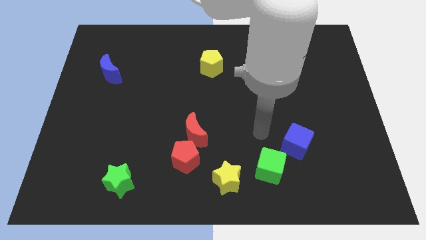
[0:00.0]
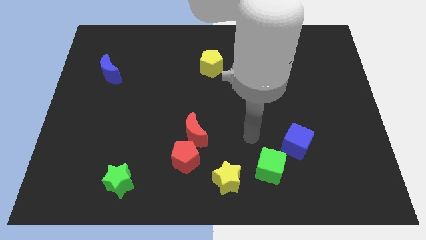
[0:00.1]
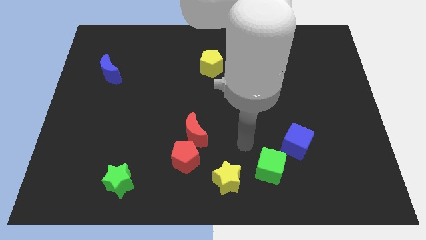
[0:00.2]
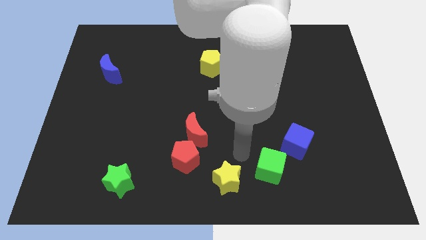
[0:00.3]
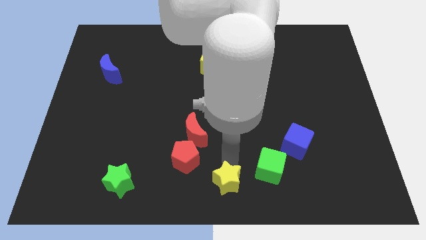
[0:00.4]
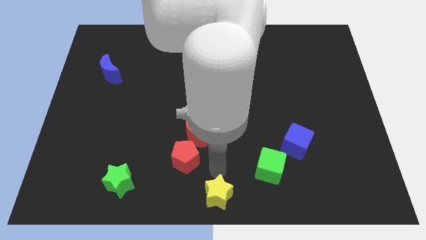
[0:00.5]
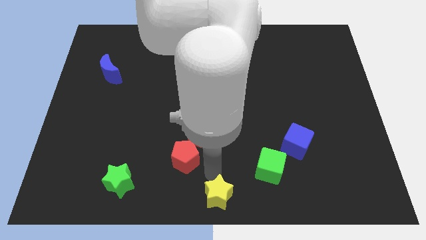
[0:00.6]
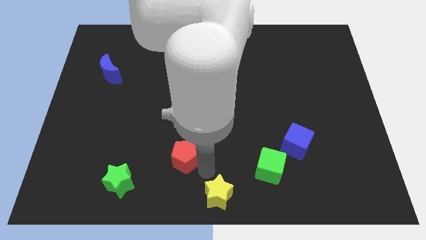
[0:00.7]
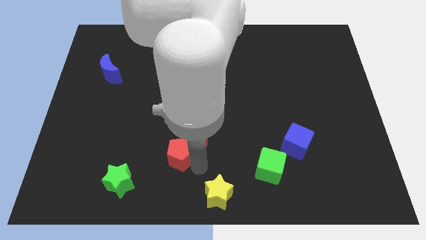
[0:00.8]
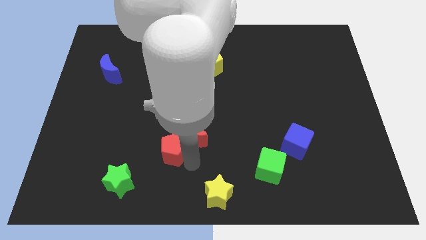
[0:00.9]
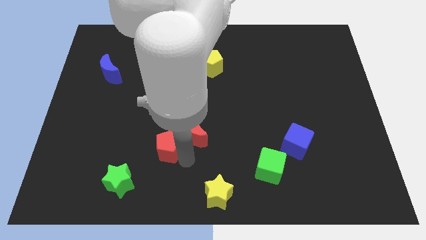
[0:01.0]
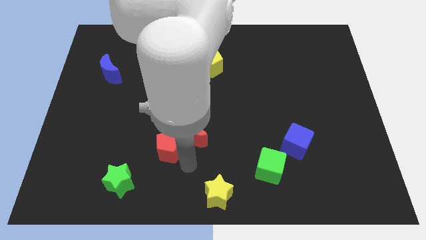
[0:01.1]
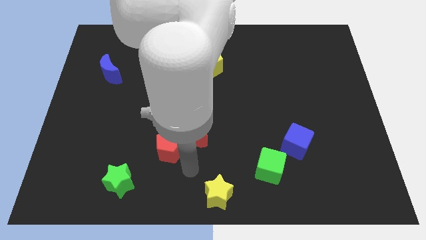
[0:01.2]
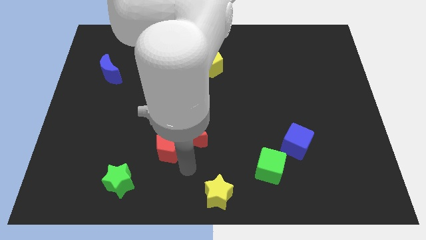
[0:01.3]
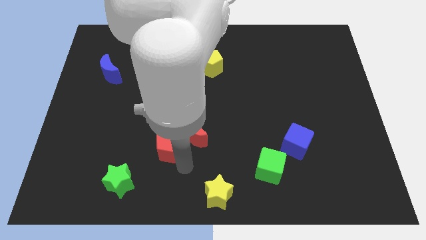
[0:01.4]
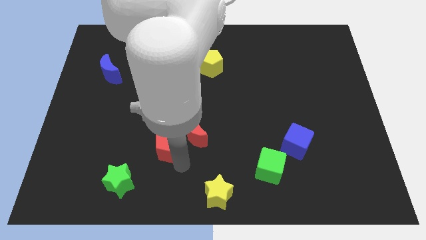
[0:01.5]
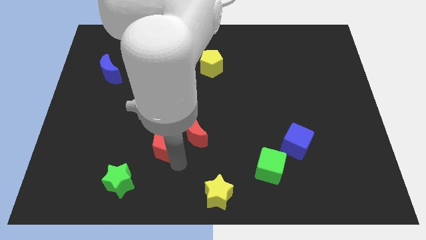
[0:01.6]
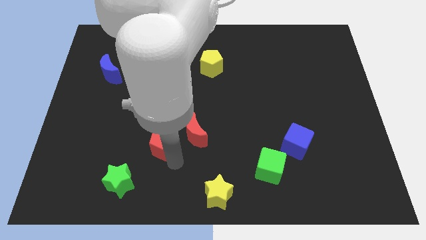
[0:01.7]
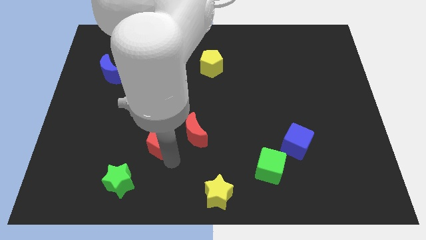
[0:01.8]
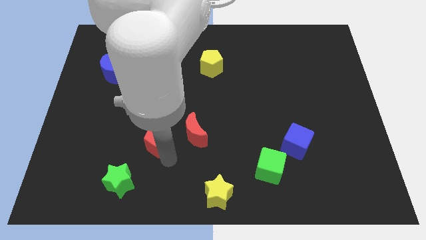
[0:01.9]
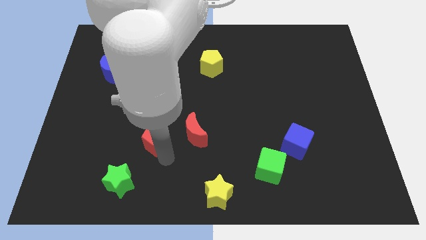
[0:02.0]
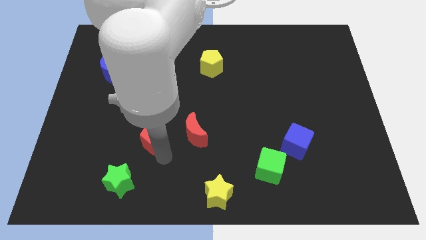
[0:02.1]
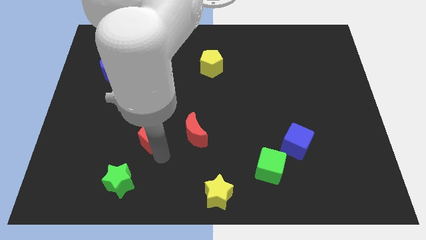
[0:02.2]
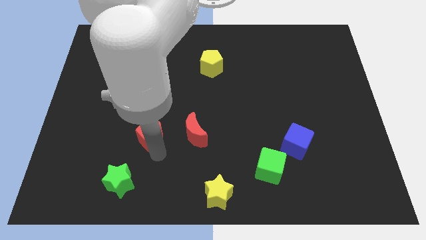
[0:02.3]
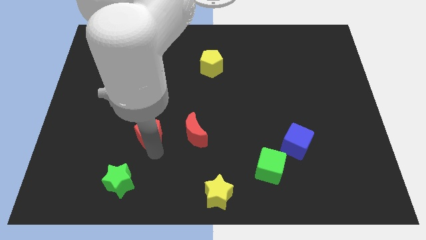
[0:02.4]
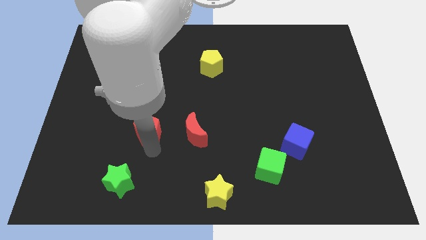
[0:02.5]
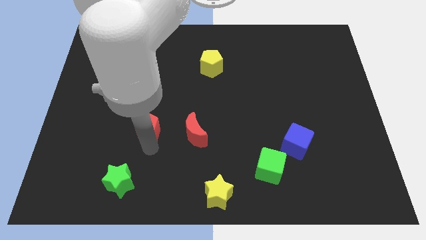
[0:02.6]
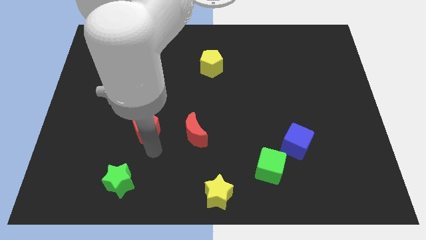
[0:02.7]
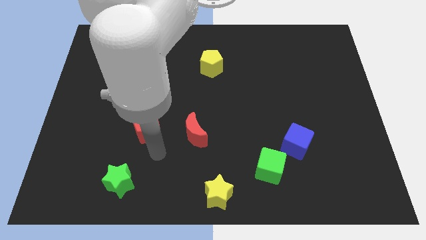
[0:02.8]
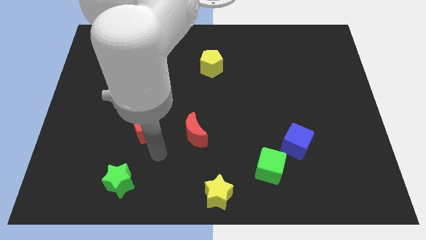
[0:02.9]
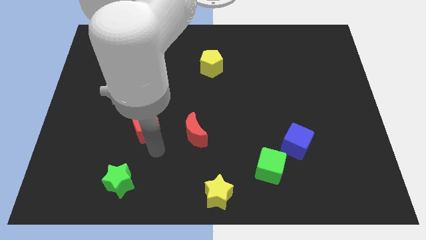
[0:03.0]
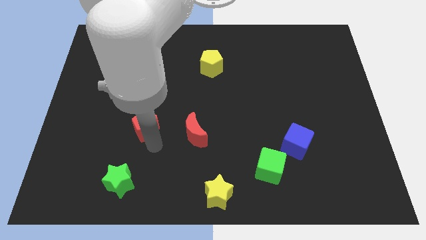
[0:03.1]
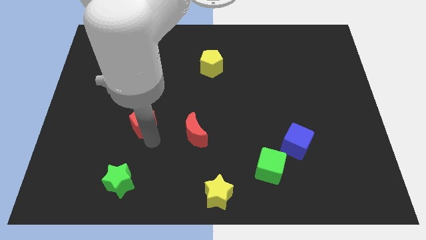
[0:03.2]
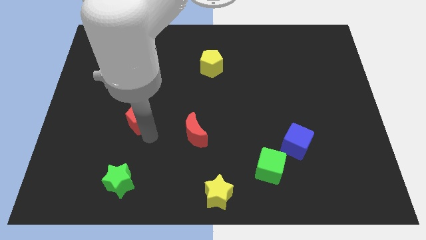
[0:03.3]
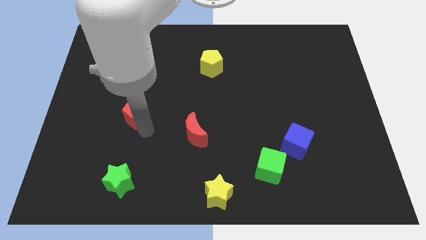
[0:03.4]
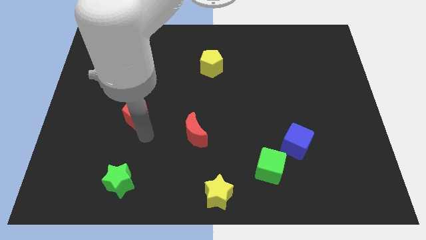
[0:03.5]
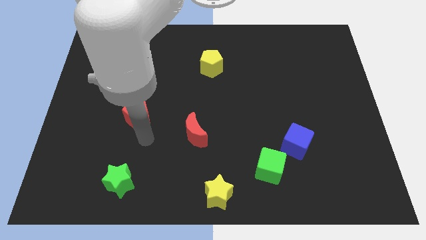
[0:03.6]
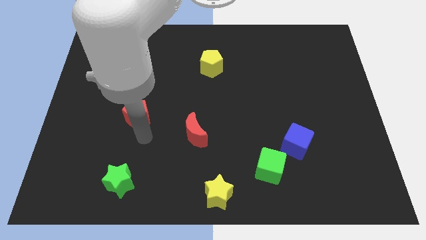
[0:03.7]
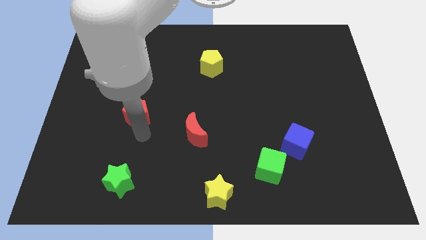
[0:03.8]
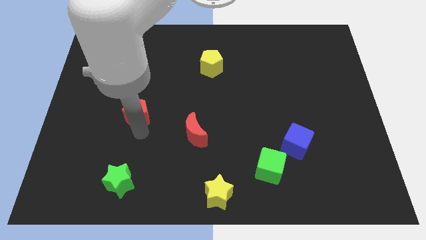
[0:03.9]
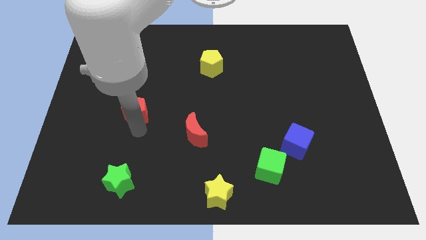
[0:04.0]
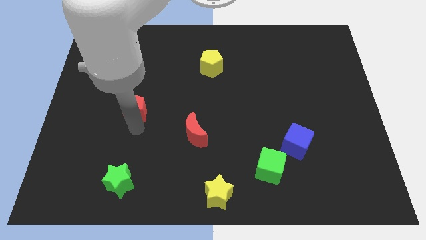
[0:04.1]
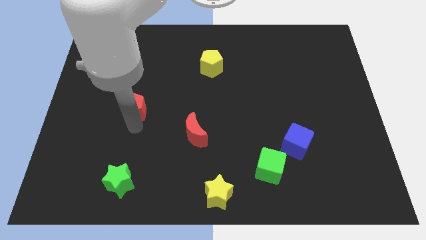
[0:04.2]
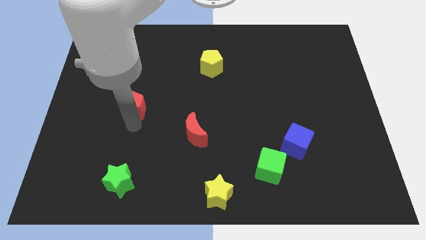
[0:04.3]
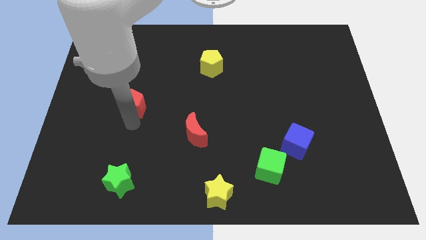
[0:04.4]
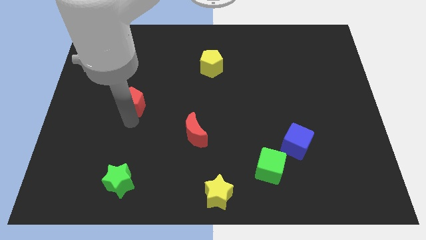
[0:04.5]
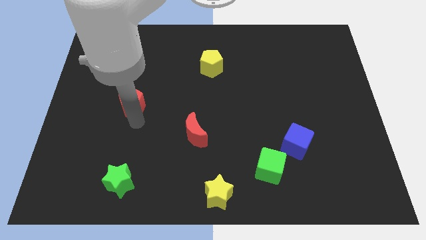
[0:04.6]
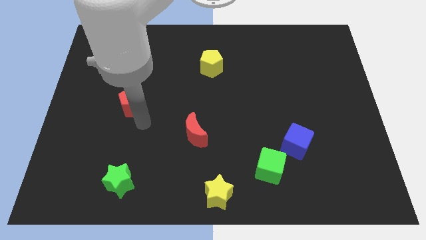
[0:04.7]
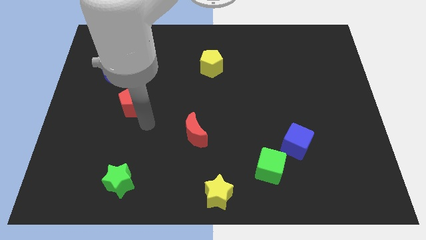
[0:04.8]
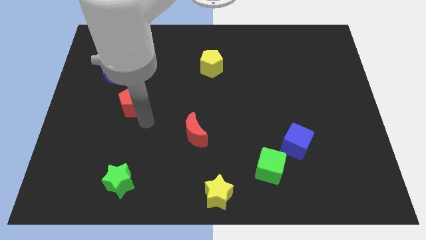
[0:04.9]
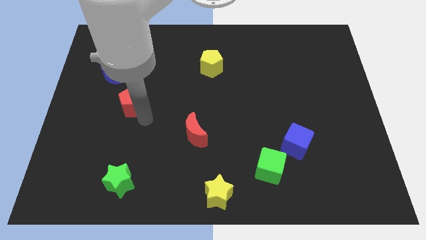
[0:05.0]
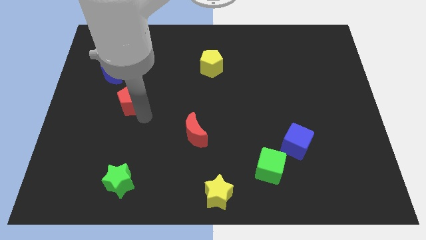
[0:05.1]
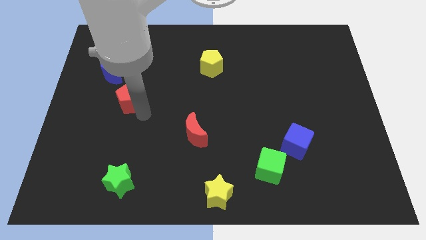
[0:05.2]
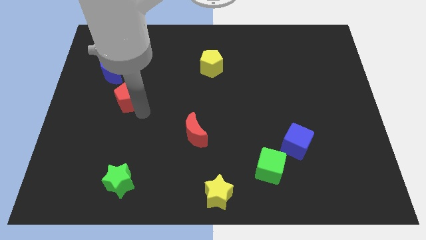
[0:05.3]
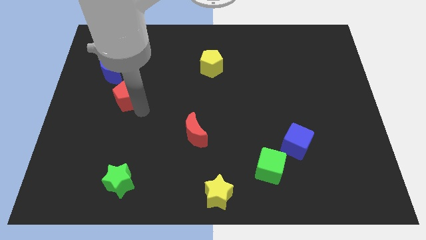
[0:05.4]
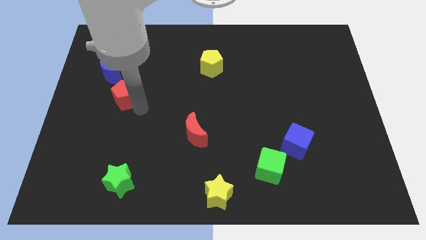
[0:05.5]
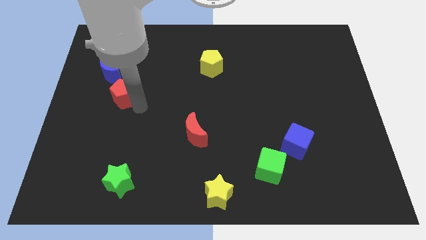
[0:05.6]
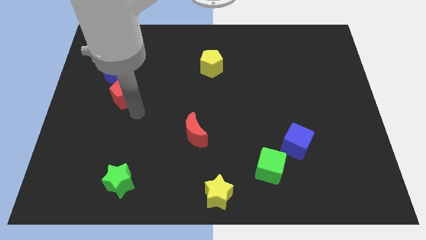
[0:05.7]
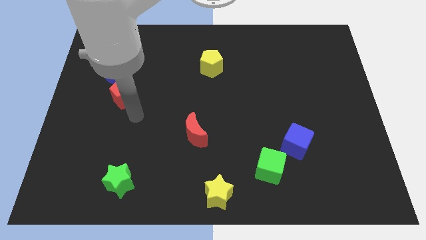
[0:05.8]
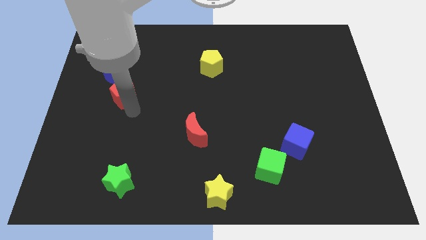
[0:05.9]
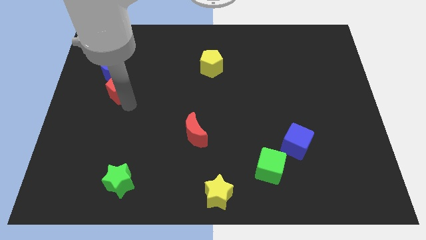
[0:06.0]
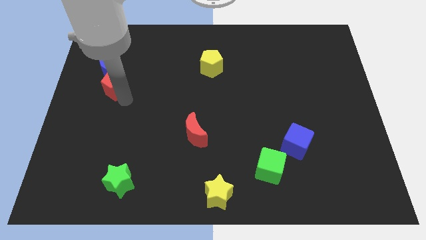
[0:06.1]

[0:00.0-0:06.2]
put the red pentagon to the blue moon

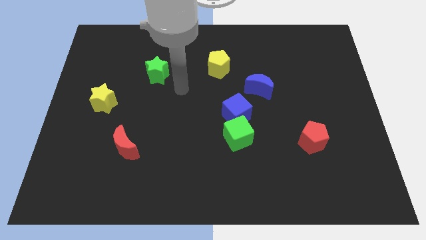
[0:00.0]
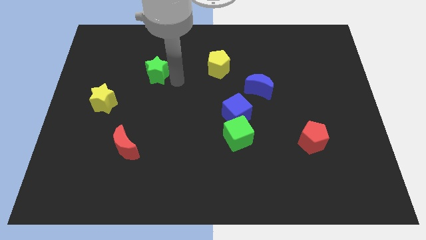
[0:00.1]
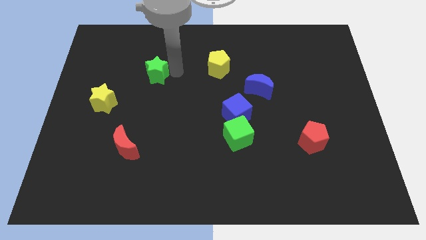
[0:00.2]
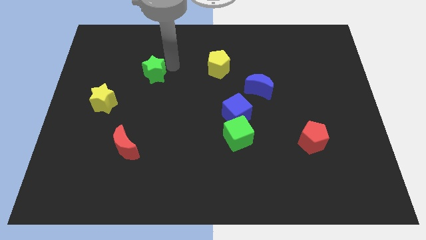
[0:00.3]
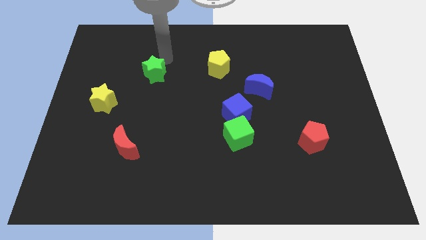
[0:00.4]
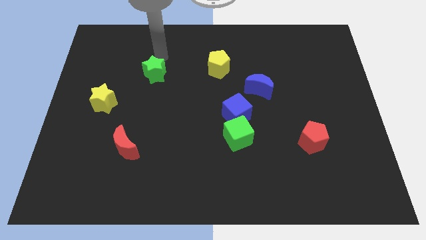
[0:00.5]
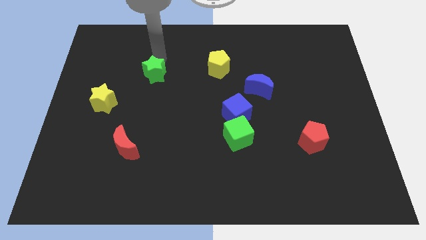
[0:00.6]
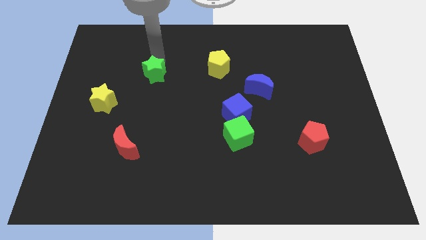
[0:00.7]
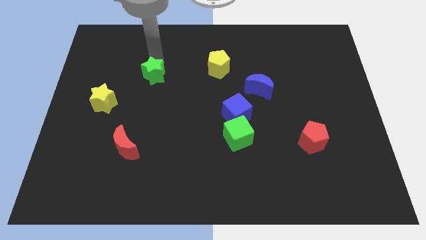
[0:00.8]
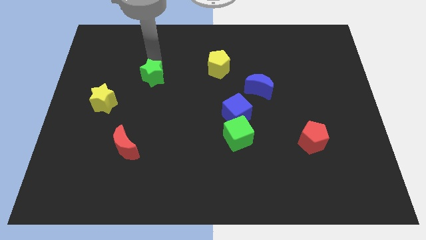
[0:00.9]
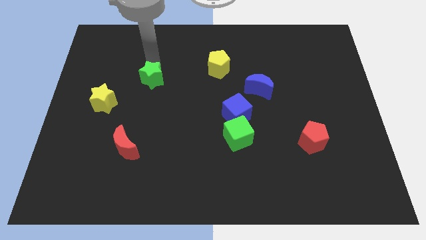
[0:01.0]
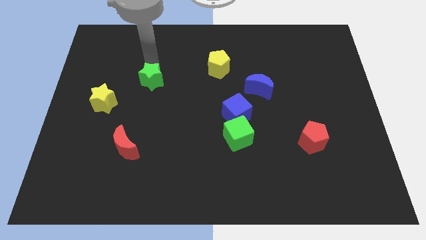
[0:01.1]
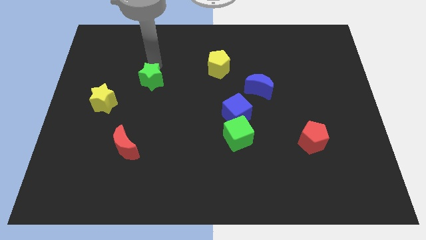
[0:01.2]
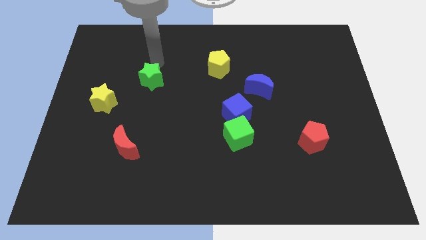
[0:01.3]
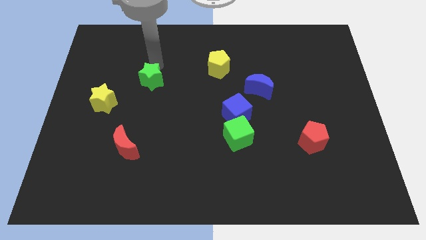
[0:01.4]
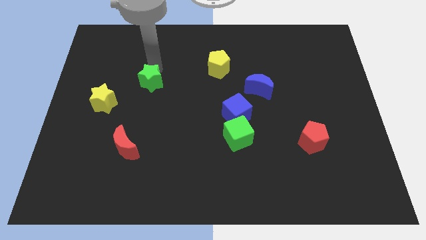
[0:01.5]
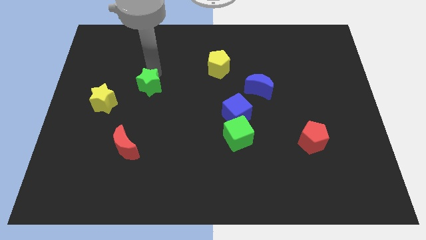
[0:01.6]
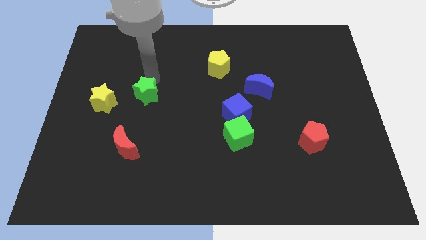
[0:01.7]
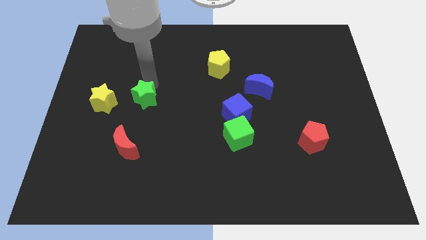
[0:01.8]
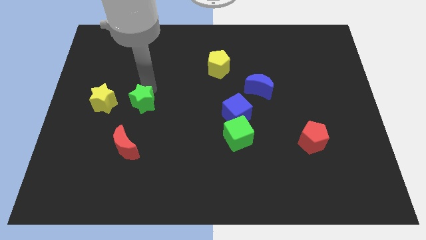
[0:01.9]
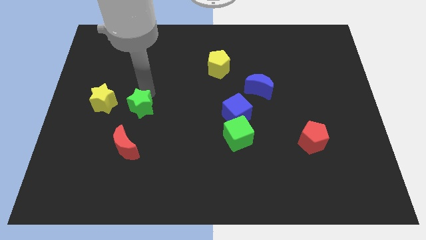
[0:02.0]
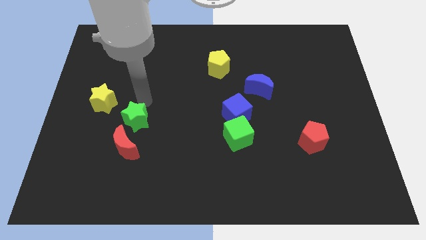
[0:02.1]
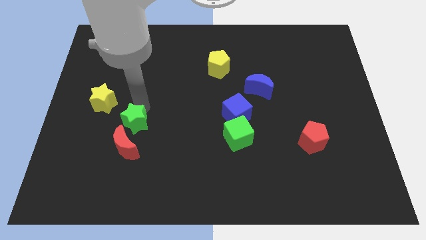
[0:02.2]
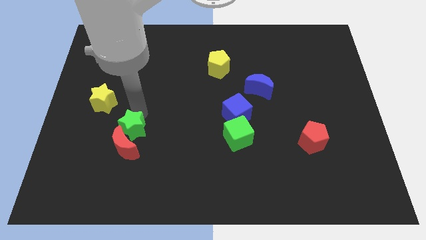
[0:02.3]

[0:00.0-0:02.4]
slide the green star close to the red moon
